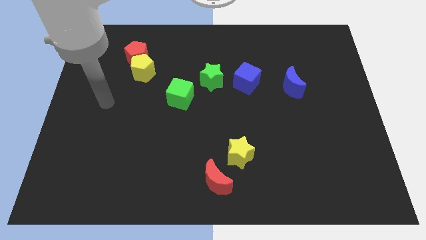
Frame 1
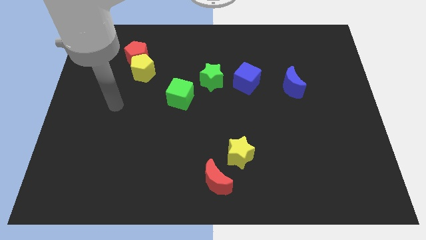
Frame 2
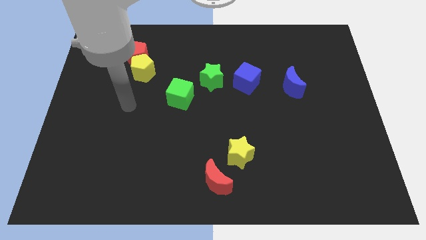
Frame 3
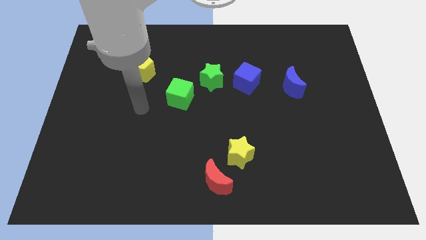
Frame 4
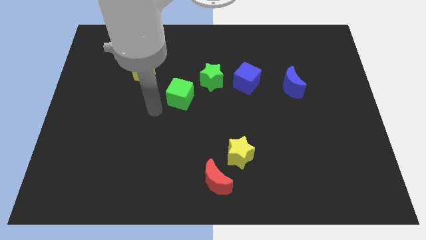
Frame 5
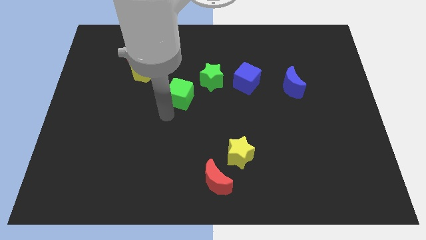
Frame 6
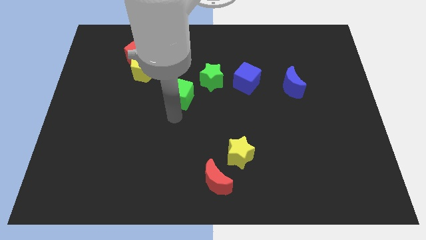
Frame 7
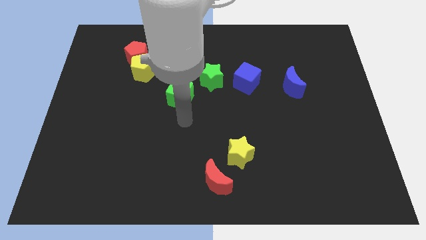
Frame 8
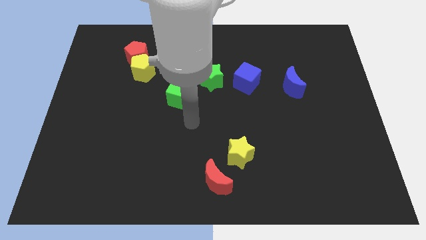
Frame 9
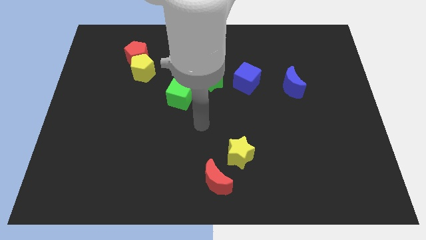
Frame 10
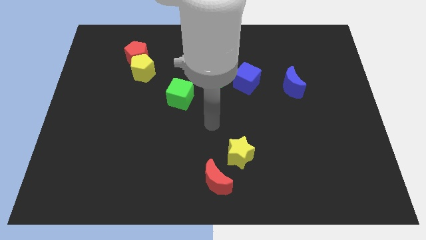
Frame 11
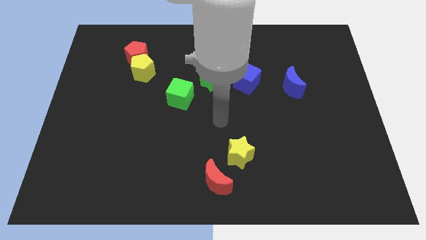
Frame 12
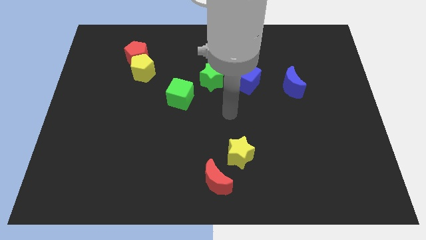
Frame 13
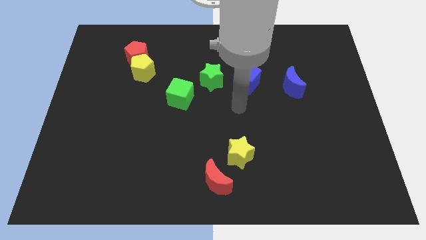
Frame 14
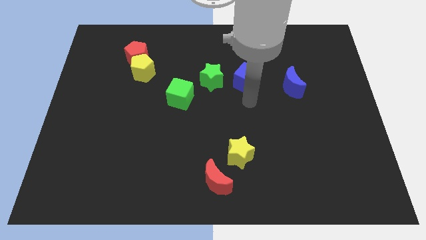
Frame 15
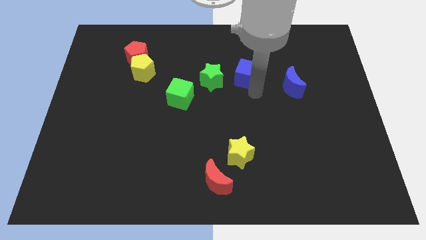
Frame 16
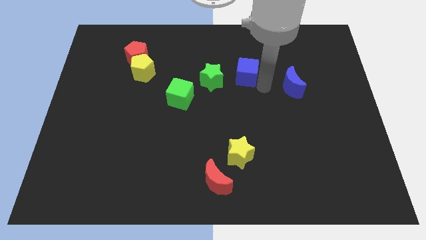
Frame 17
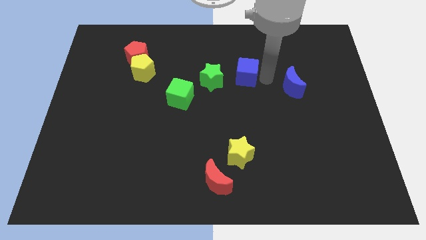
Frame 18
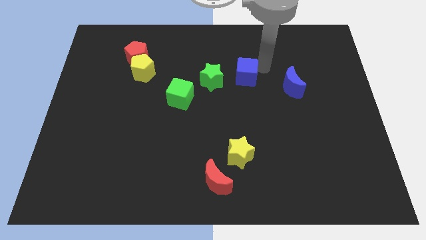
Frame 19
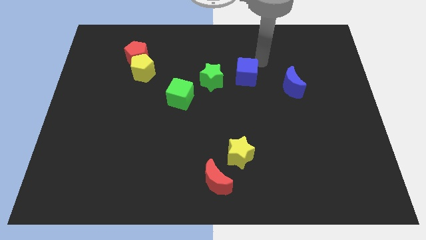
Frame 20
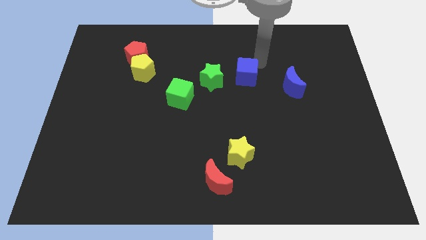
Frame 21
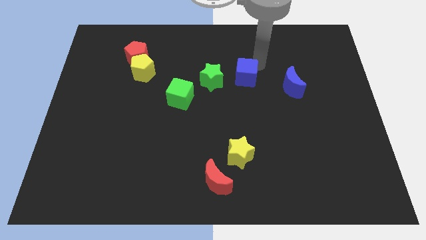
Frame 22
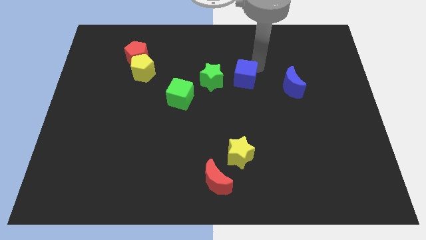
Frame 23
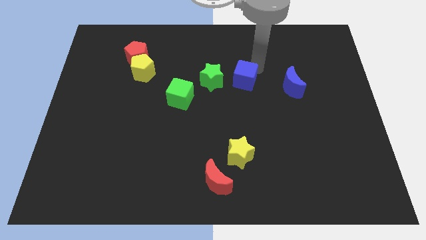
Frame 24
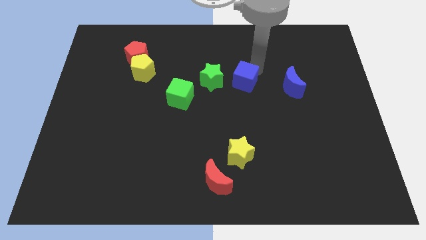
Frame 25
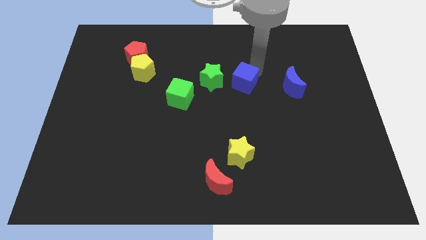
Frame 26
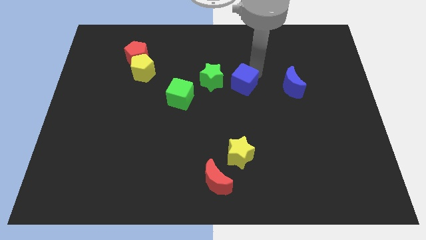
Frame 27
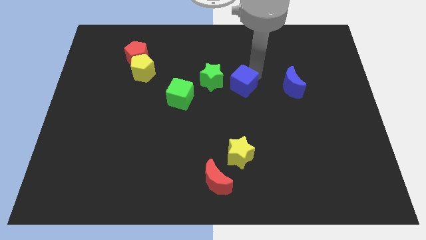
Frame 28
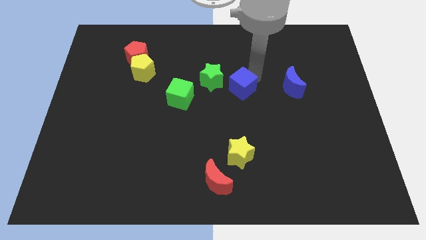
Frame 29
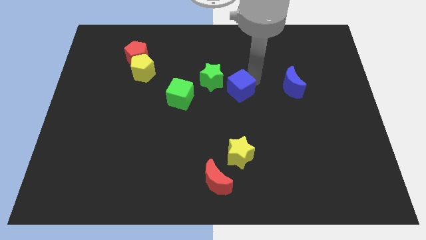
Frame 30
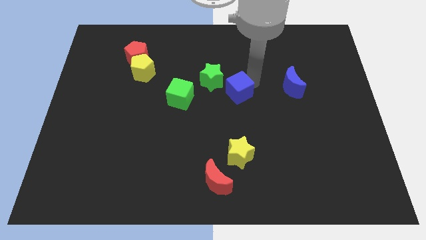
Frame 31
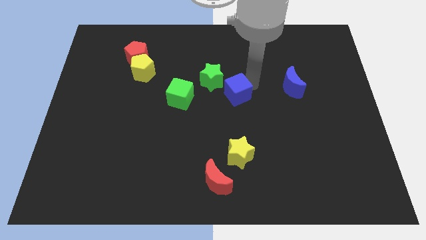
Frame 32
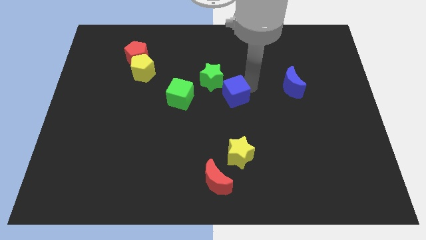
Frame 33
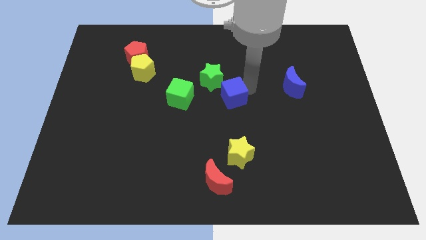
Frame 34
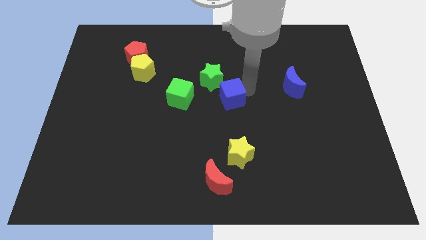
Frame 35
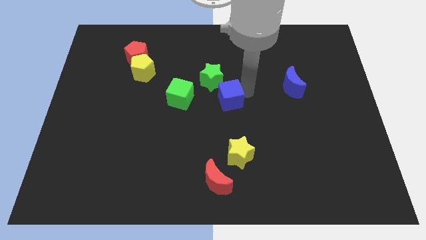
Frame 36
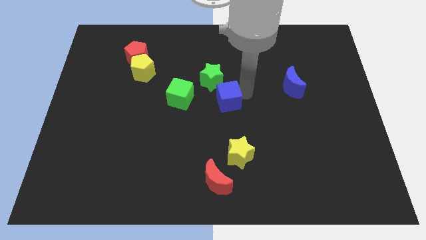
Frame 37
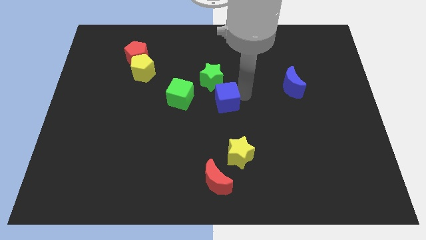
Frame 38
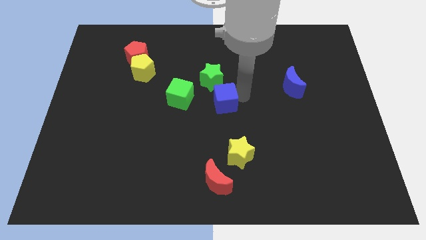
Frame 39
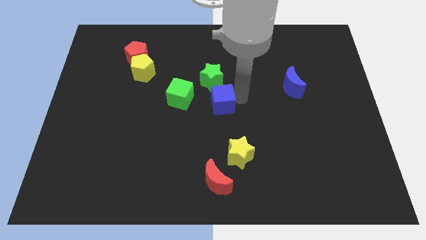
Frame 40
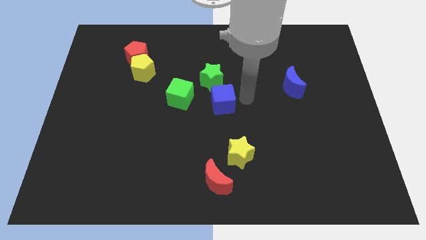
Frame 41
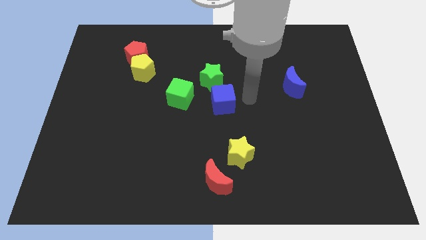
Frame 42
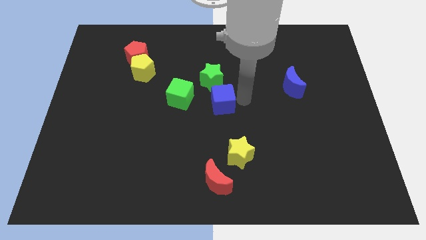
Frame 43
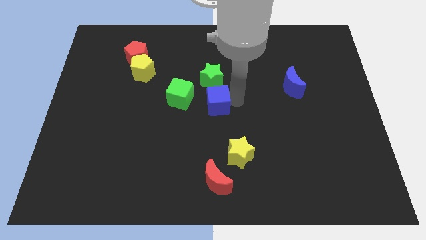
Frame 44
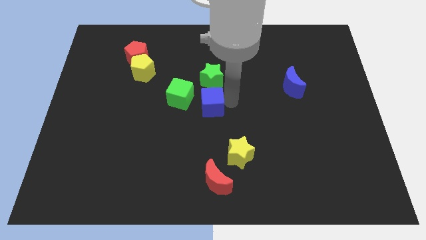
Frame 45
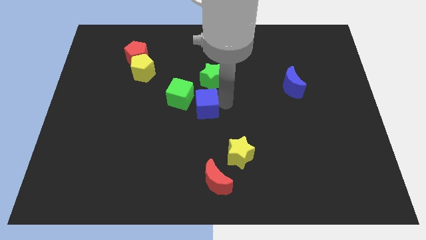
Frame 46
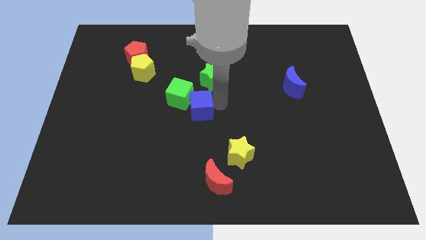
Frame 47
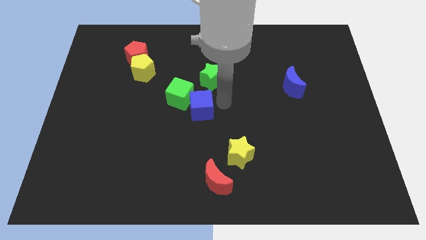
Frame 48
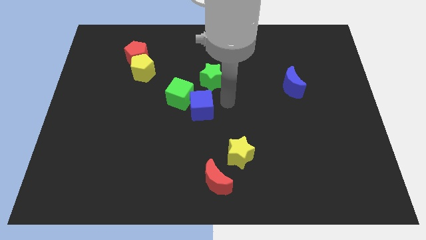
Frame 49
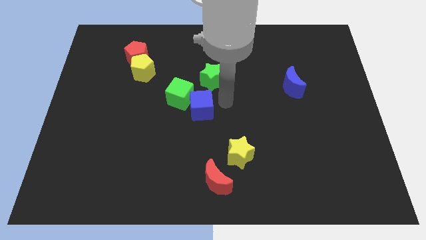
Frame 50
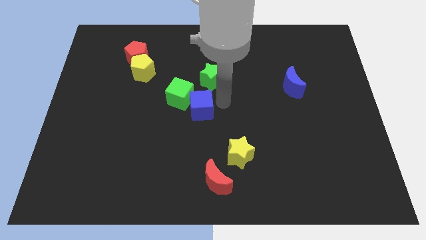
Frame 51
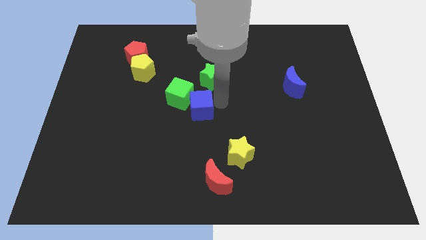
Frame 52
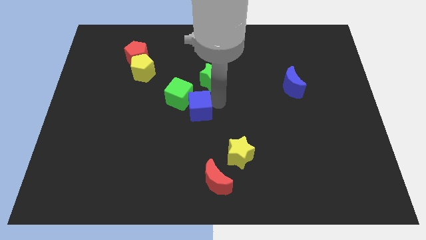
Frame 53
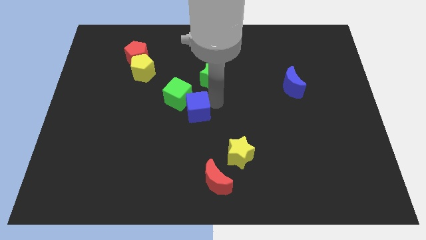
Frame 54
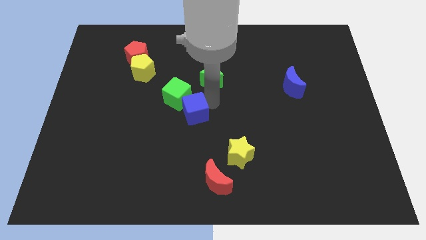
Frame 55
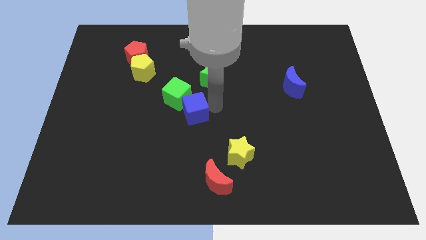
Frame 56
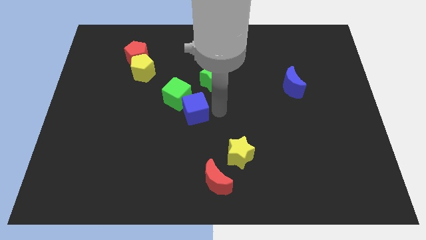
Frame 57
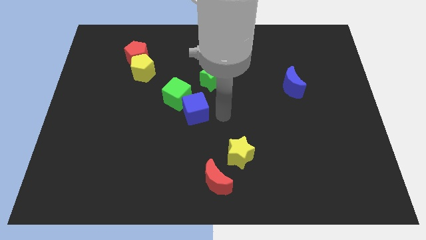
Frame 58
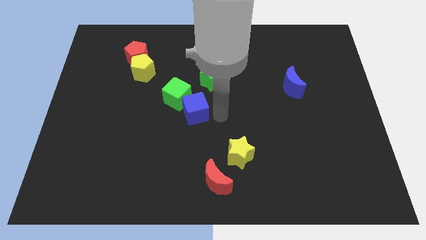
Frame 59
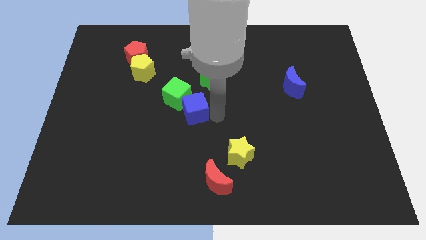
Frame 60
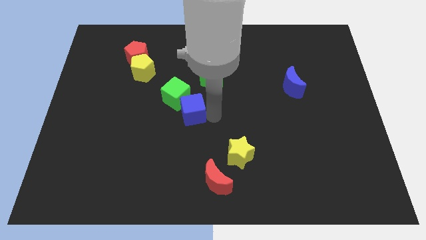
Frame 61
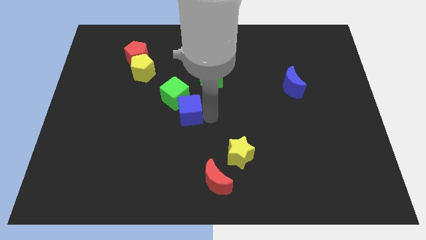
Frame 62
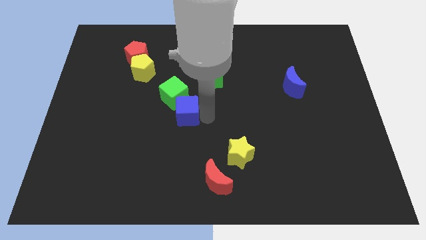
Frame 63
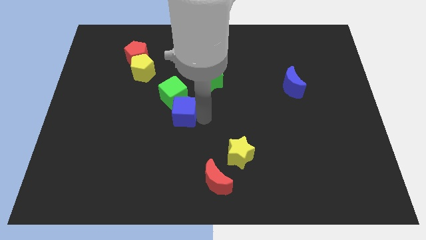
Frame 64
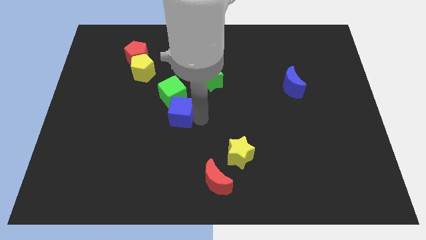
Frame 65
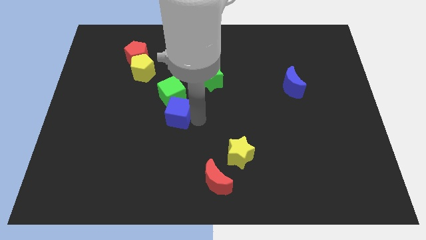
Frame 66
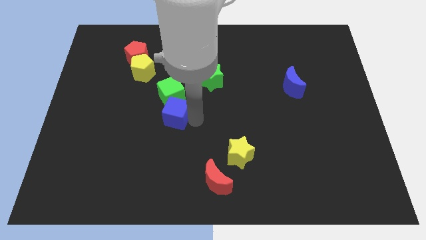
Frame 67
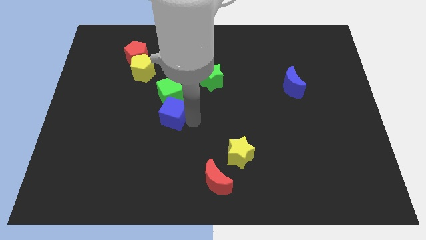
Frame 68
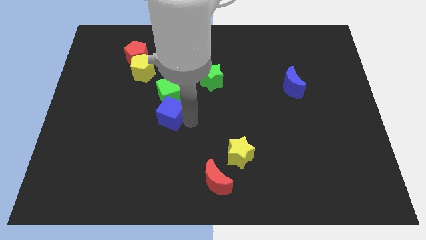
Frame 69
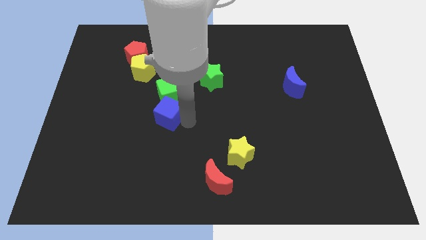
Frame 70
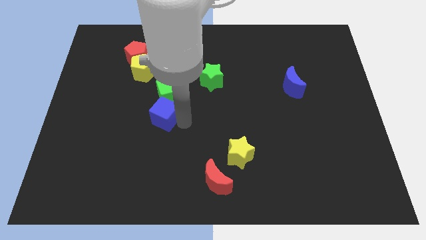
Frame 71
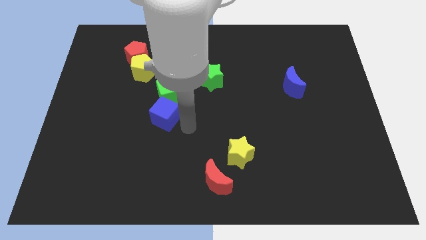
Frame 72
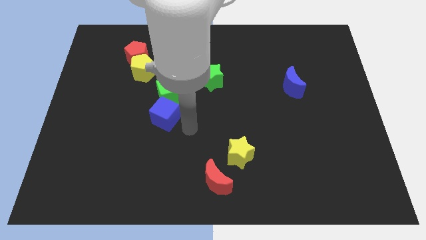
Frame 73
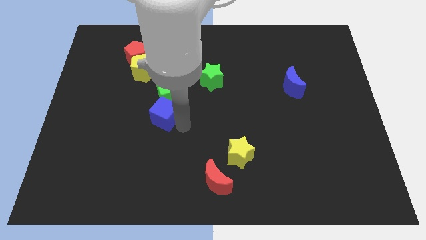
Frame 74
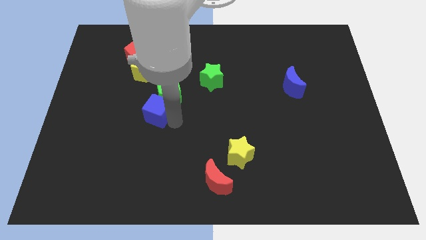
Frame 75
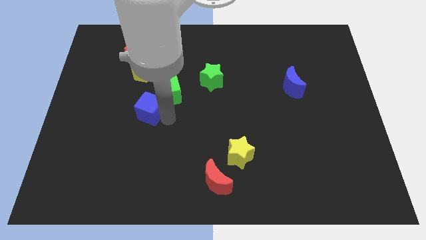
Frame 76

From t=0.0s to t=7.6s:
slide the blue cube to the bottom side of the yellow pentagon
